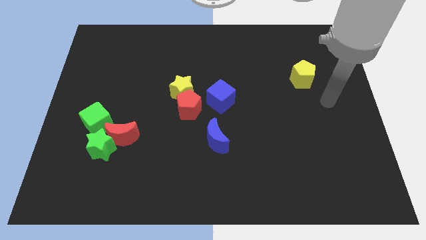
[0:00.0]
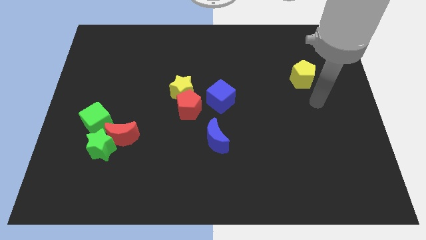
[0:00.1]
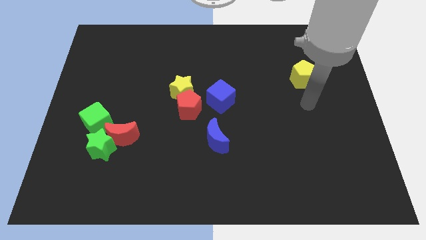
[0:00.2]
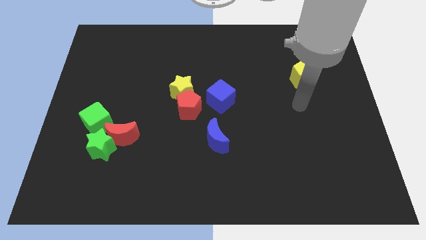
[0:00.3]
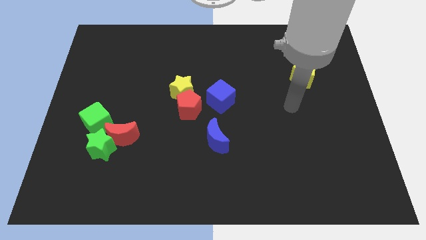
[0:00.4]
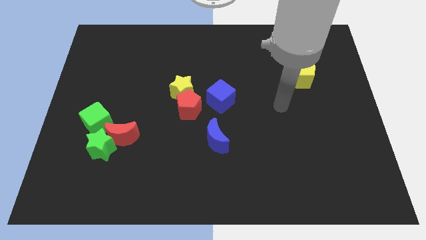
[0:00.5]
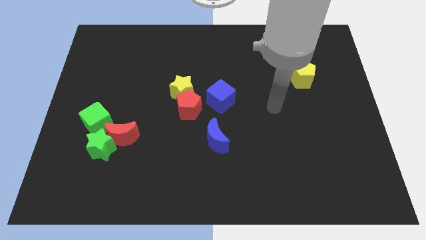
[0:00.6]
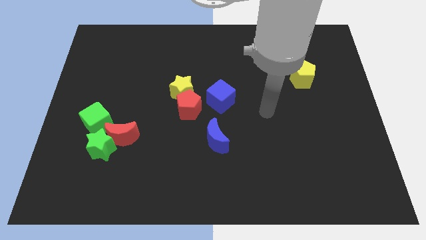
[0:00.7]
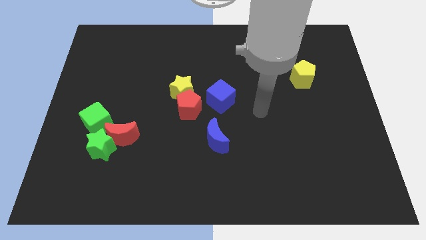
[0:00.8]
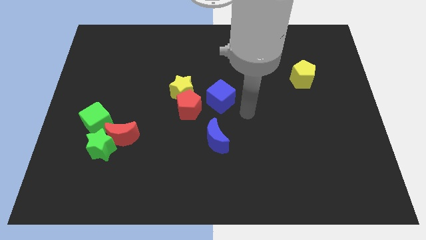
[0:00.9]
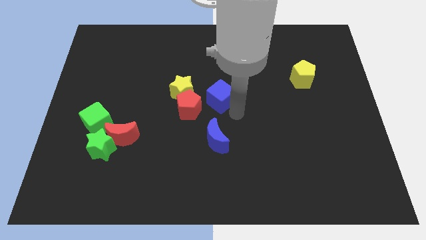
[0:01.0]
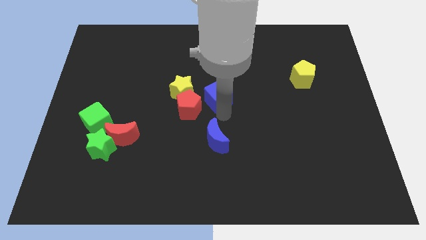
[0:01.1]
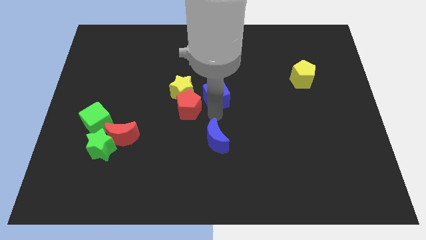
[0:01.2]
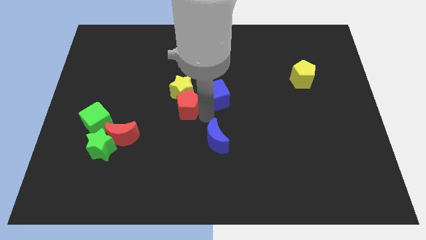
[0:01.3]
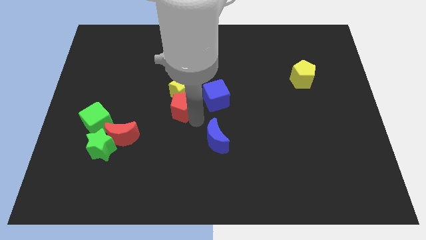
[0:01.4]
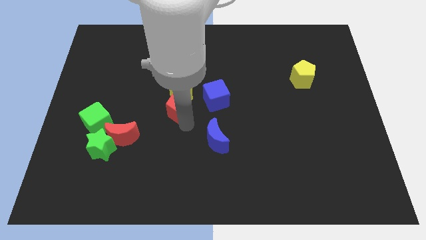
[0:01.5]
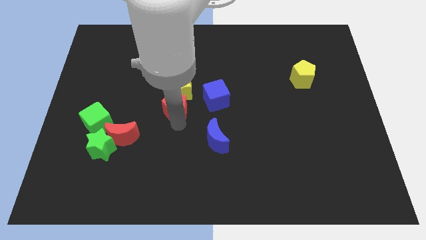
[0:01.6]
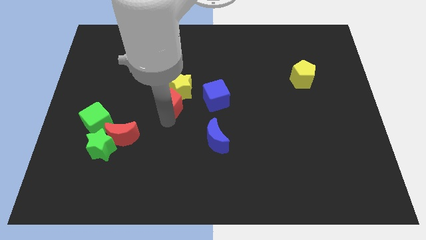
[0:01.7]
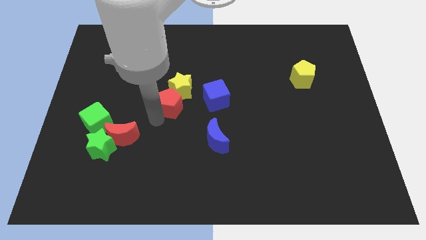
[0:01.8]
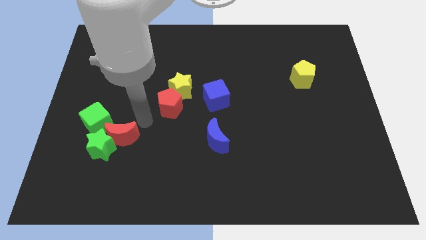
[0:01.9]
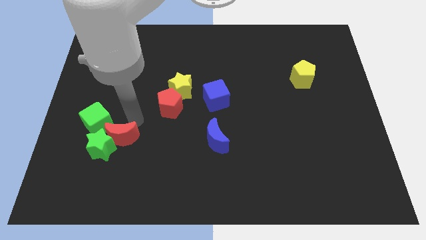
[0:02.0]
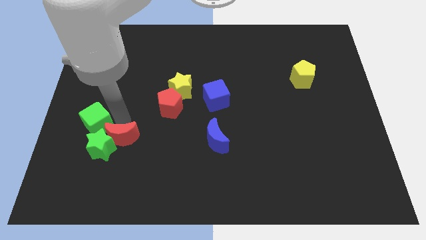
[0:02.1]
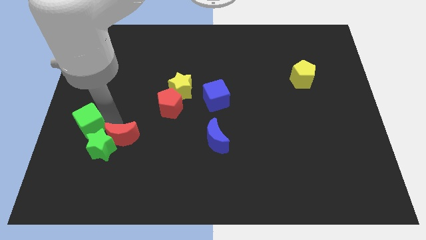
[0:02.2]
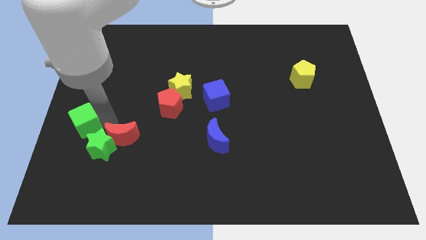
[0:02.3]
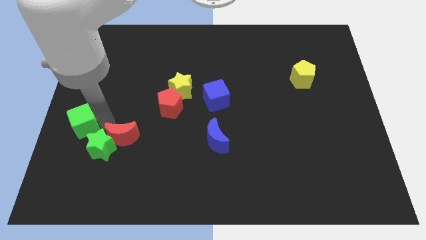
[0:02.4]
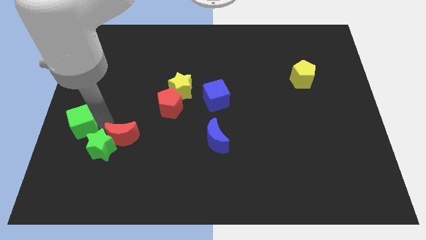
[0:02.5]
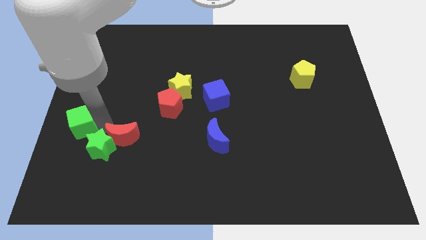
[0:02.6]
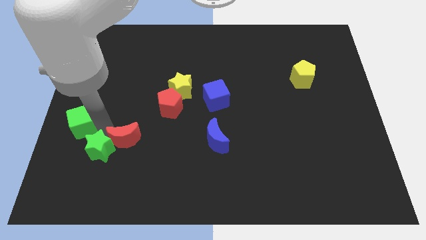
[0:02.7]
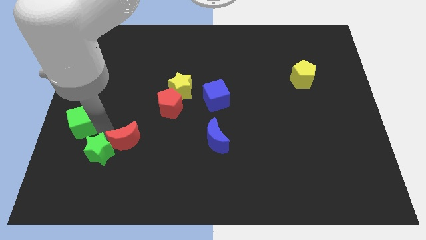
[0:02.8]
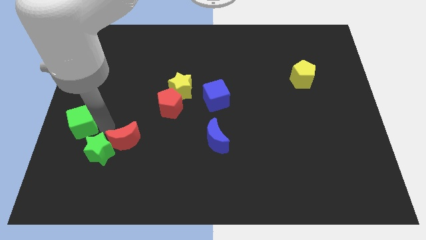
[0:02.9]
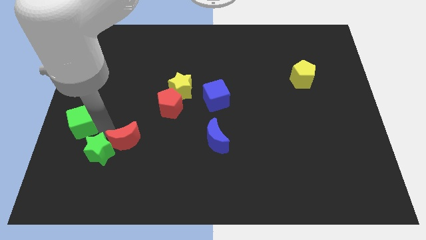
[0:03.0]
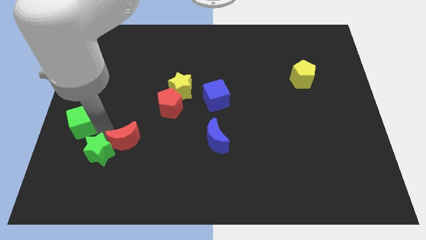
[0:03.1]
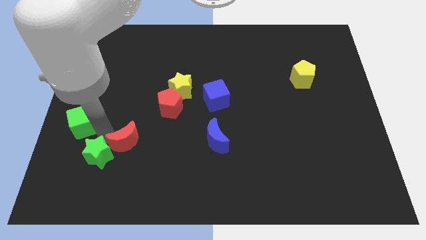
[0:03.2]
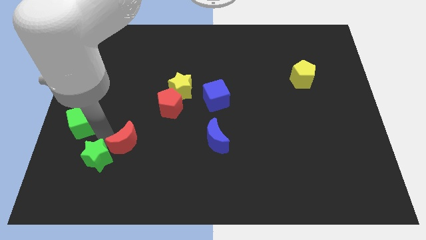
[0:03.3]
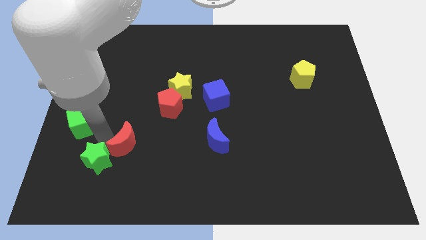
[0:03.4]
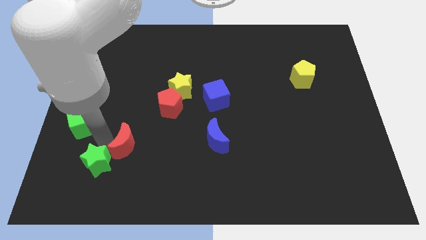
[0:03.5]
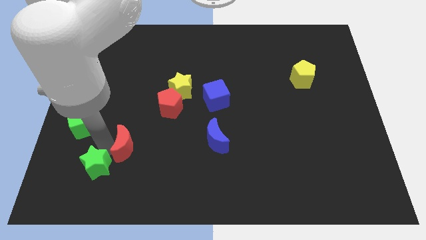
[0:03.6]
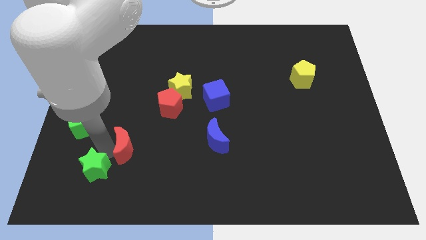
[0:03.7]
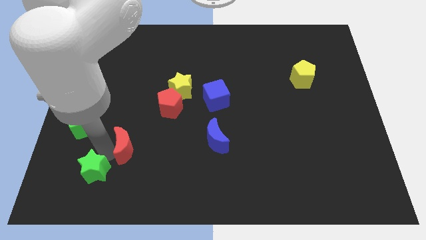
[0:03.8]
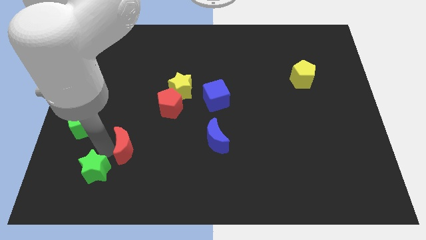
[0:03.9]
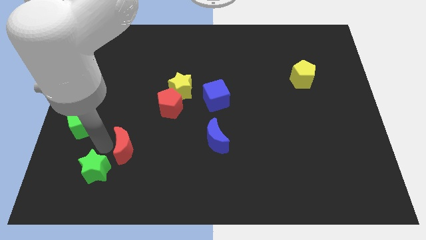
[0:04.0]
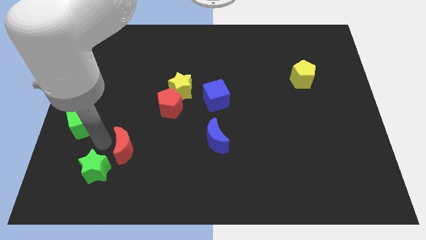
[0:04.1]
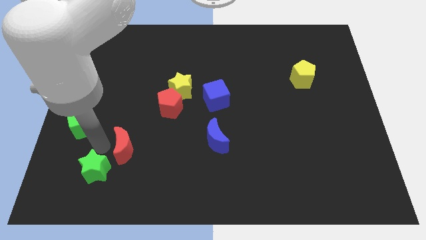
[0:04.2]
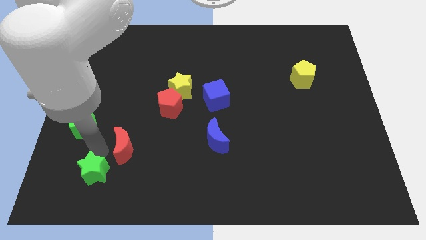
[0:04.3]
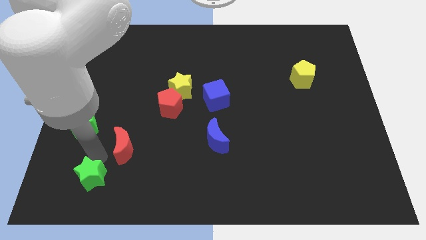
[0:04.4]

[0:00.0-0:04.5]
separate the green star from the red moon and green cube

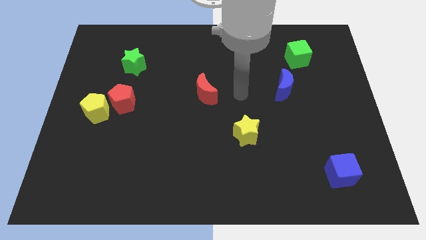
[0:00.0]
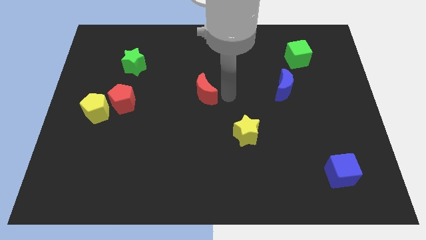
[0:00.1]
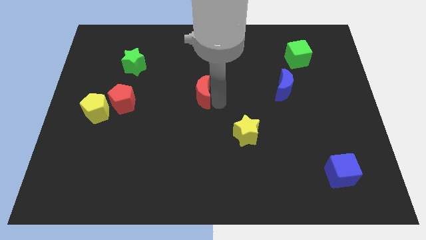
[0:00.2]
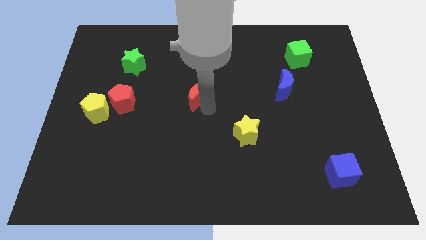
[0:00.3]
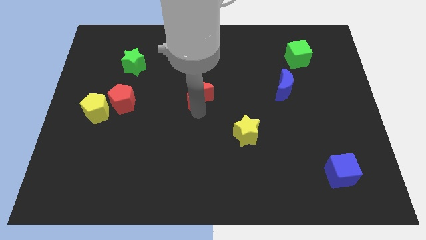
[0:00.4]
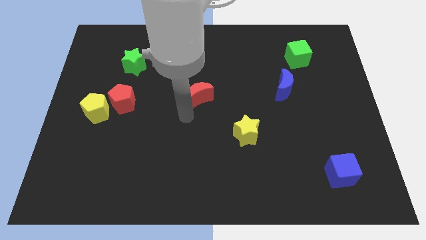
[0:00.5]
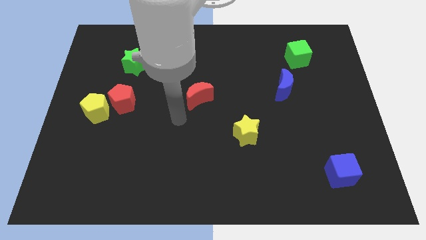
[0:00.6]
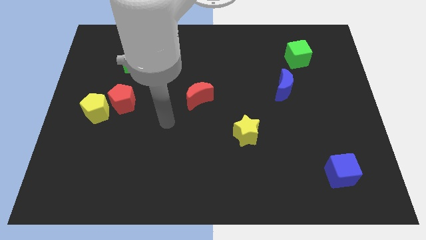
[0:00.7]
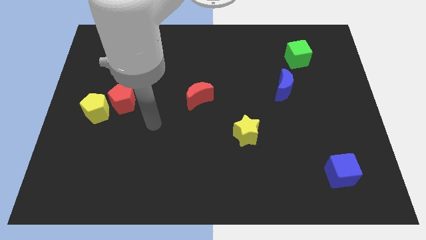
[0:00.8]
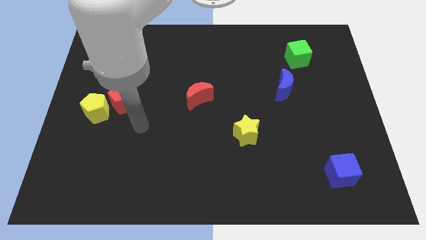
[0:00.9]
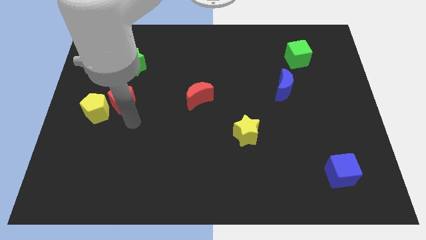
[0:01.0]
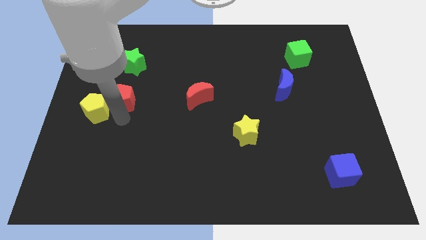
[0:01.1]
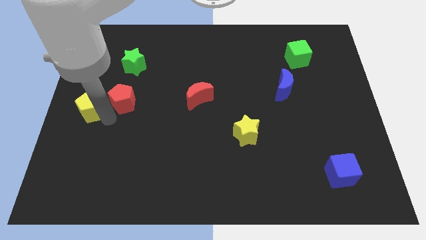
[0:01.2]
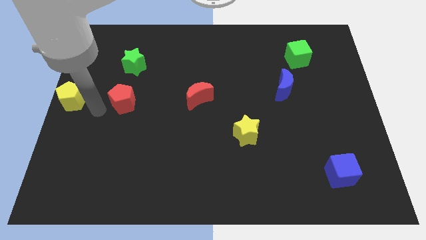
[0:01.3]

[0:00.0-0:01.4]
separate the red pentagon from the yellow pentagon

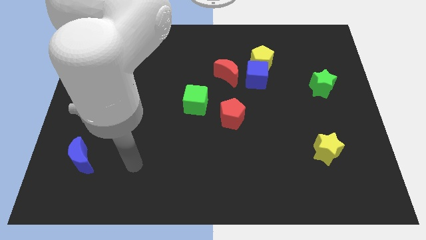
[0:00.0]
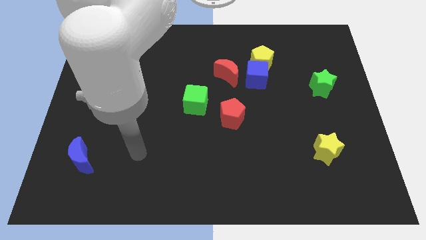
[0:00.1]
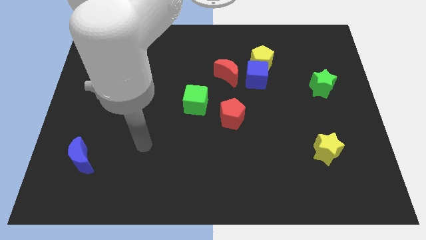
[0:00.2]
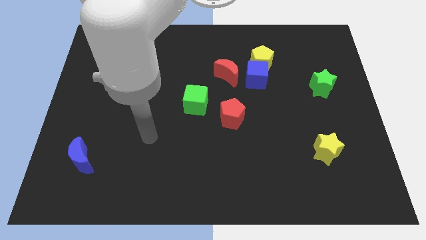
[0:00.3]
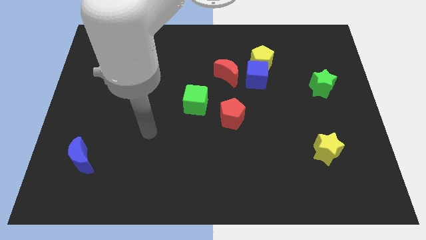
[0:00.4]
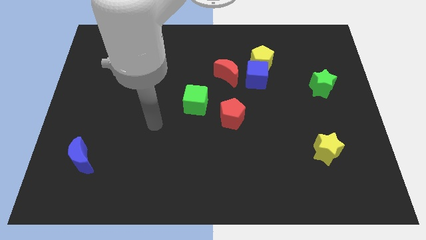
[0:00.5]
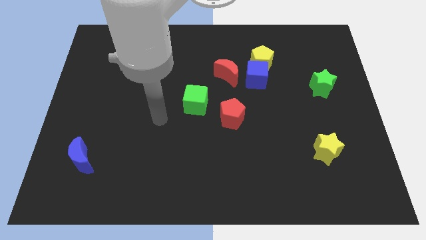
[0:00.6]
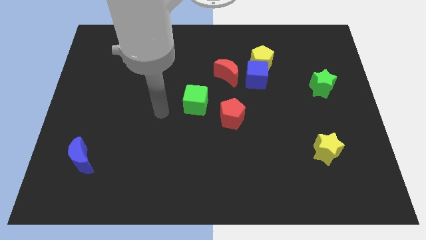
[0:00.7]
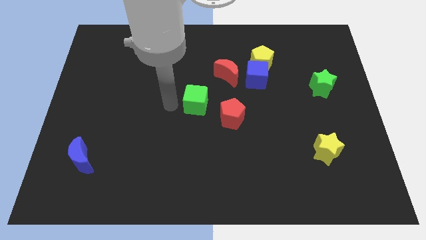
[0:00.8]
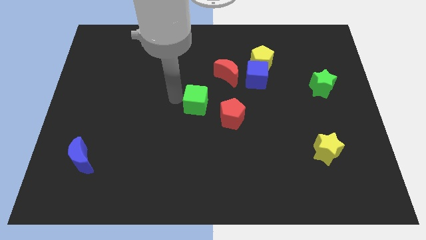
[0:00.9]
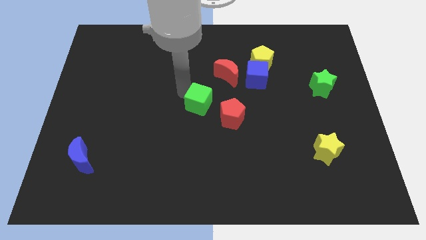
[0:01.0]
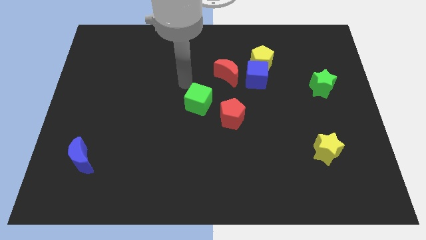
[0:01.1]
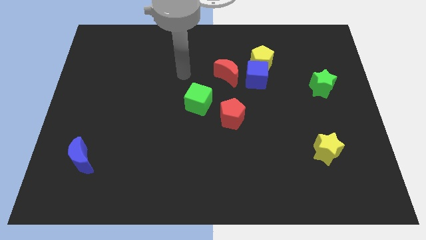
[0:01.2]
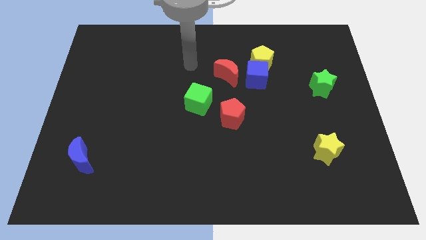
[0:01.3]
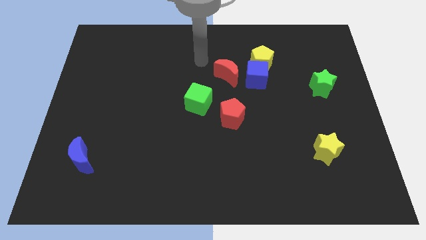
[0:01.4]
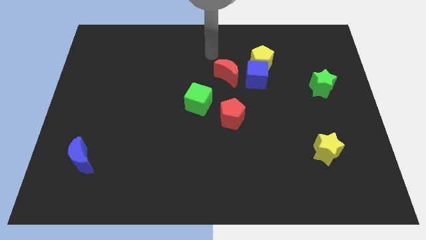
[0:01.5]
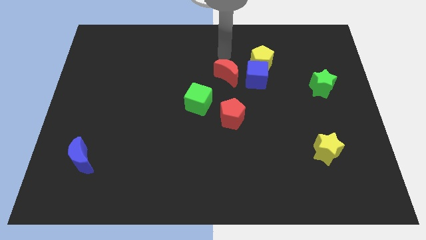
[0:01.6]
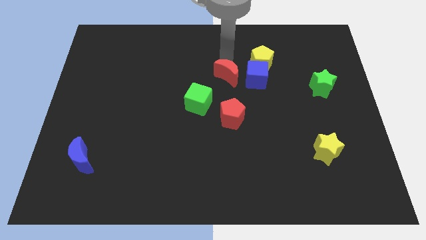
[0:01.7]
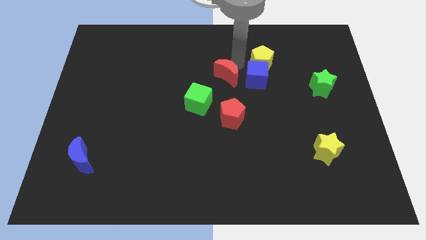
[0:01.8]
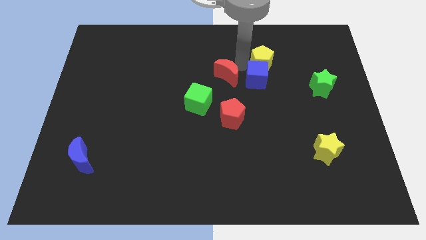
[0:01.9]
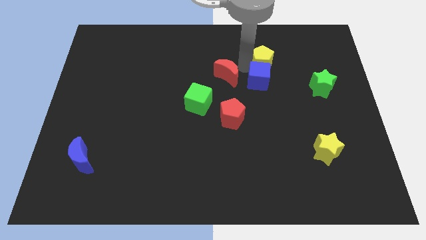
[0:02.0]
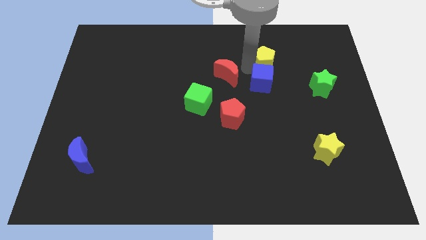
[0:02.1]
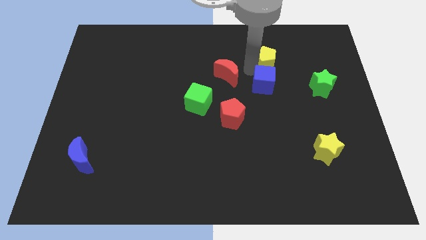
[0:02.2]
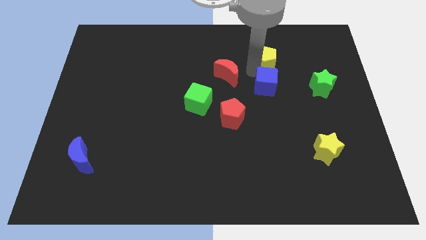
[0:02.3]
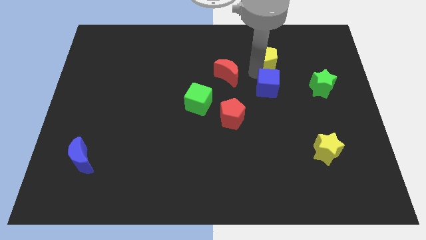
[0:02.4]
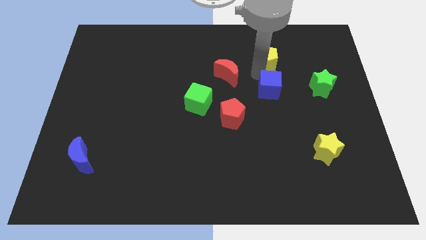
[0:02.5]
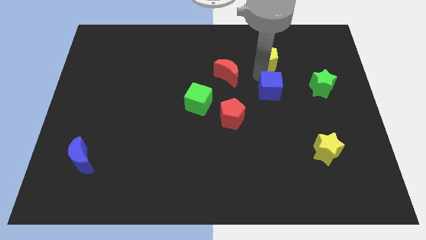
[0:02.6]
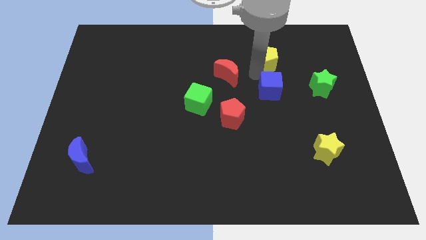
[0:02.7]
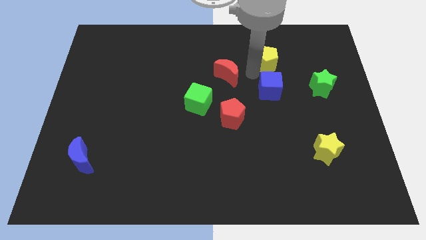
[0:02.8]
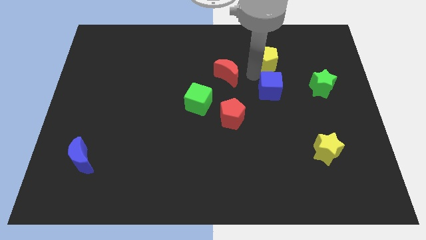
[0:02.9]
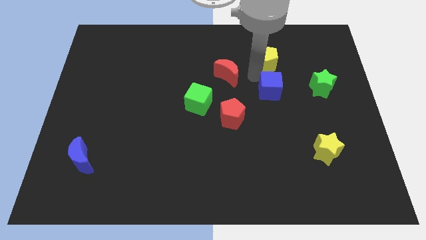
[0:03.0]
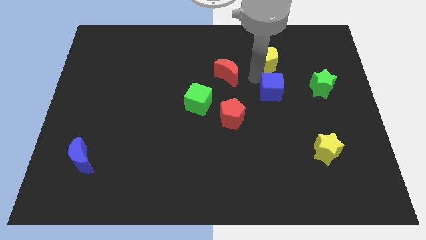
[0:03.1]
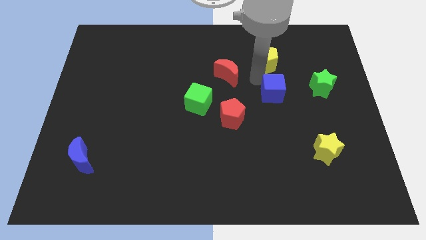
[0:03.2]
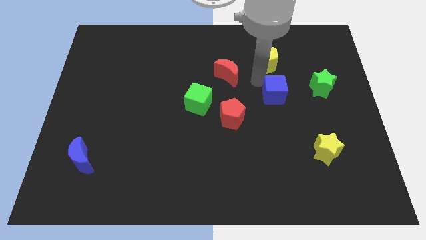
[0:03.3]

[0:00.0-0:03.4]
move the blue cube away from the yellow pentagon and red moon
